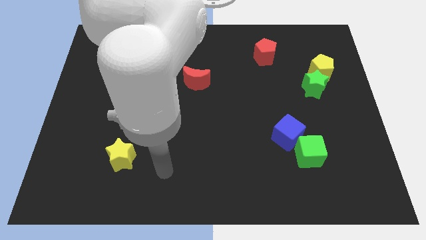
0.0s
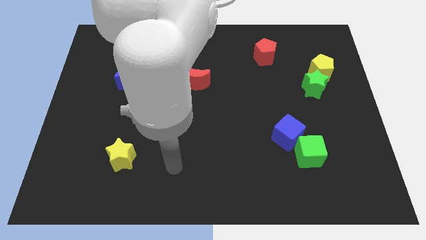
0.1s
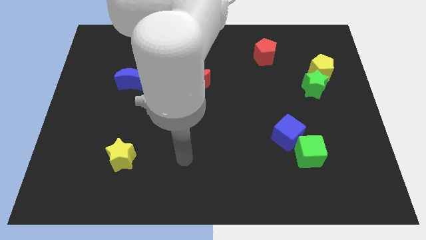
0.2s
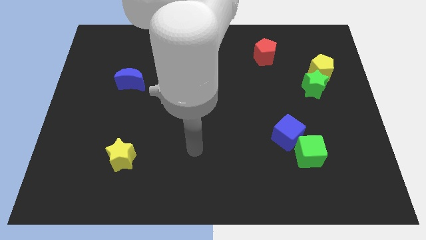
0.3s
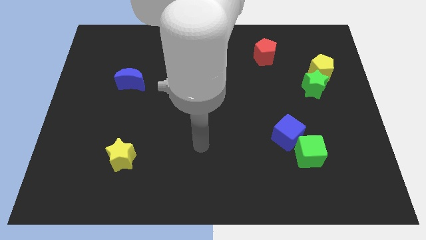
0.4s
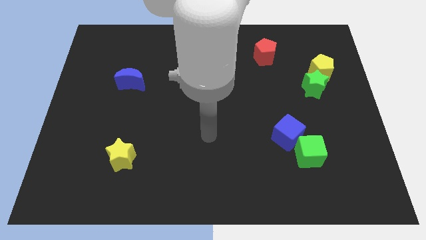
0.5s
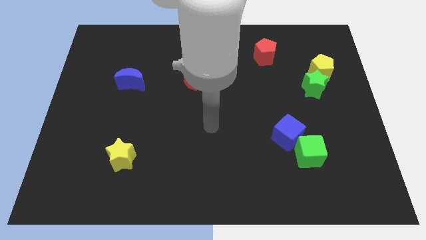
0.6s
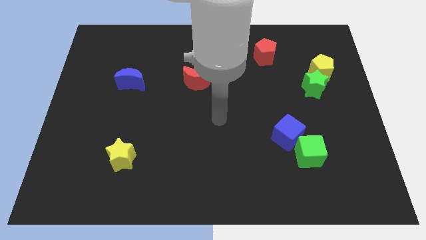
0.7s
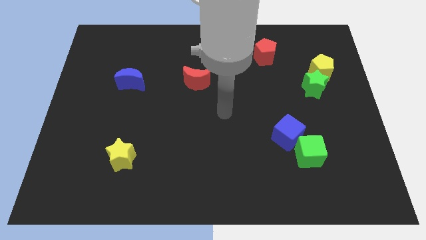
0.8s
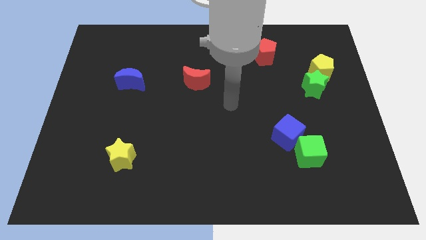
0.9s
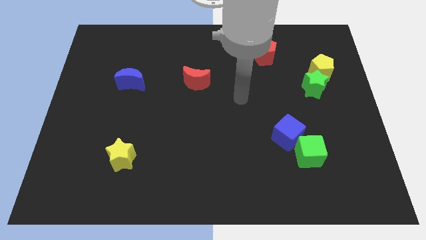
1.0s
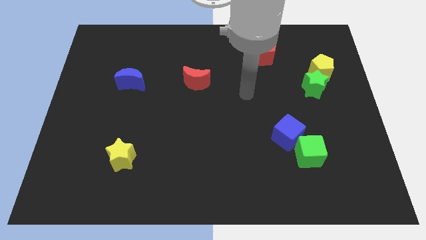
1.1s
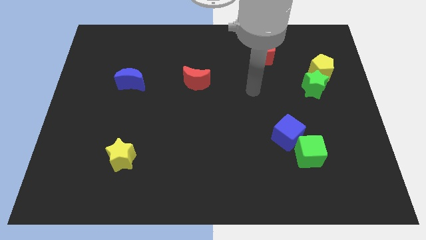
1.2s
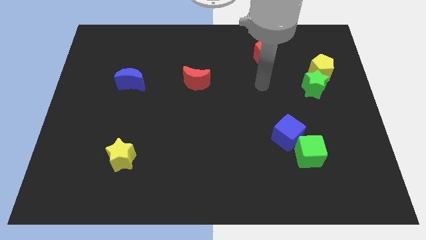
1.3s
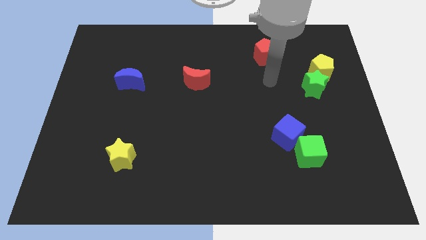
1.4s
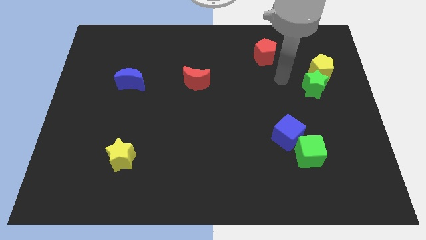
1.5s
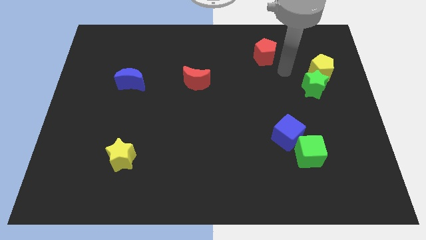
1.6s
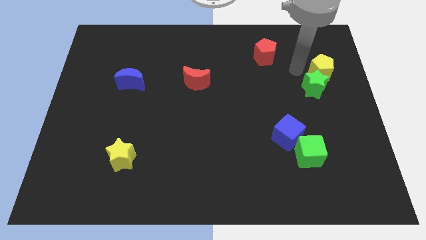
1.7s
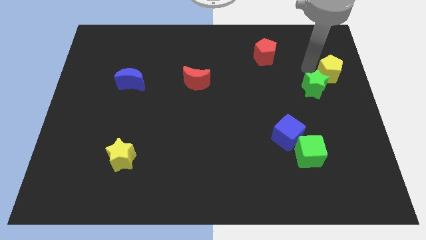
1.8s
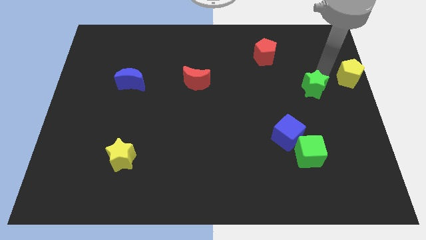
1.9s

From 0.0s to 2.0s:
move the green star away from the yellow pentagon

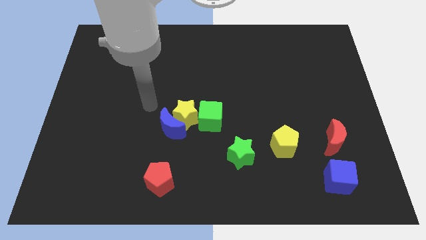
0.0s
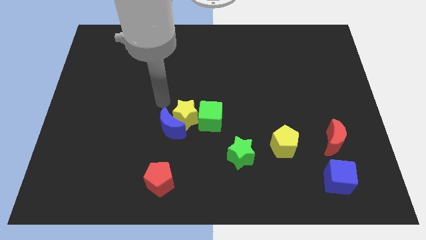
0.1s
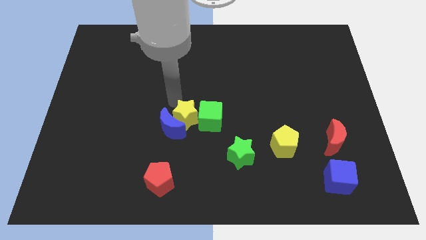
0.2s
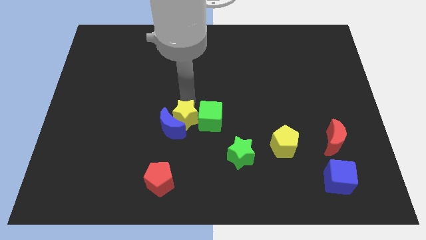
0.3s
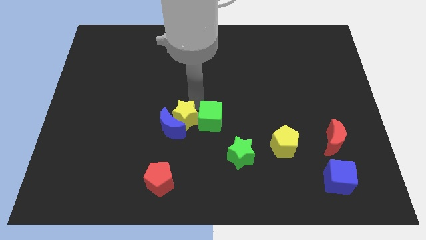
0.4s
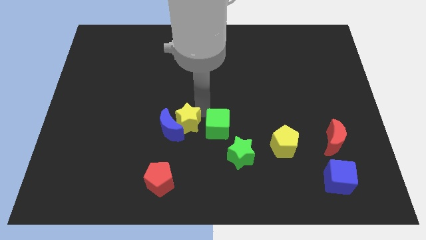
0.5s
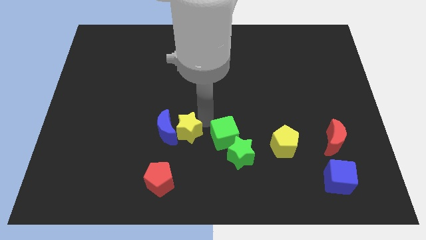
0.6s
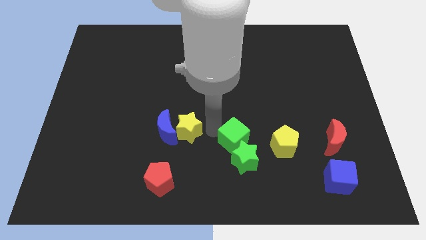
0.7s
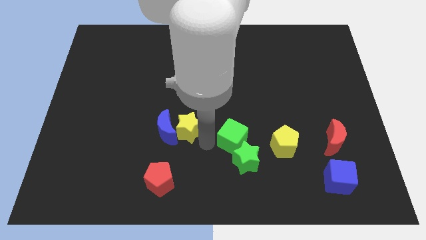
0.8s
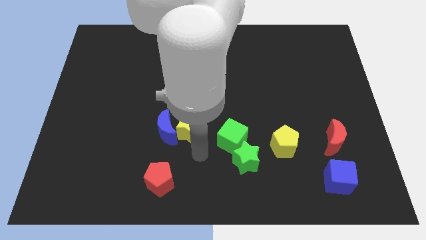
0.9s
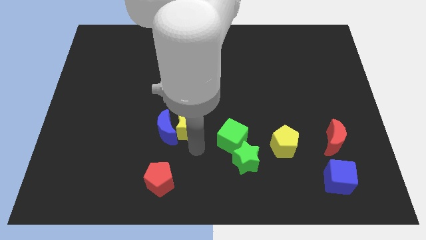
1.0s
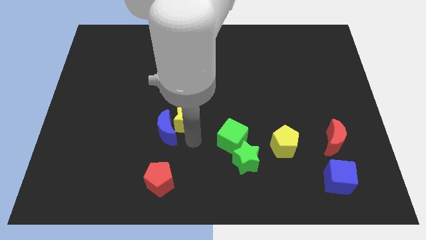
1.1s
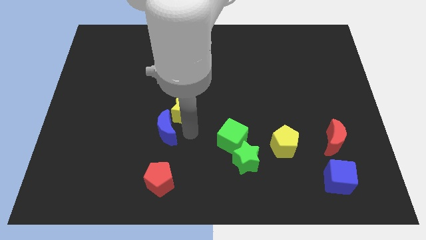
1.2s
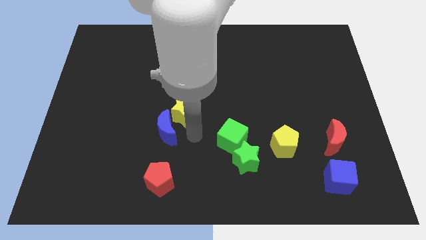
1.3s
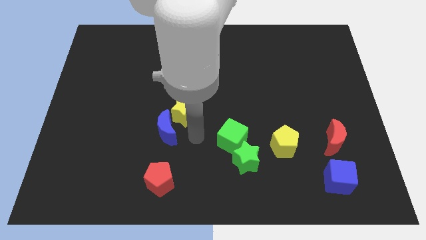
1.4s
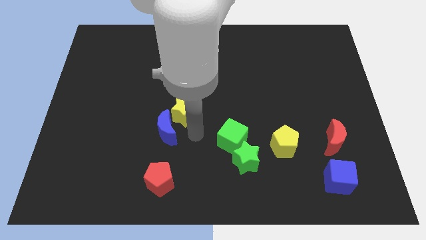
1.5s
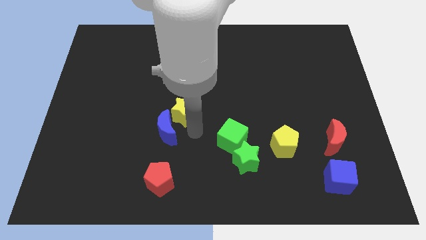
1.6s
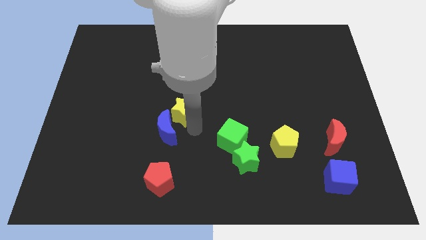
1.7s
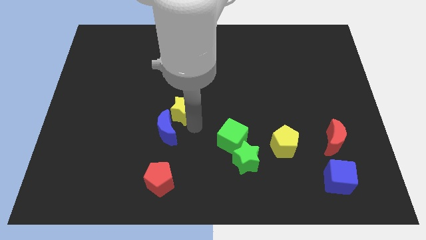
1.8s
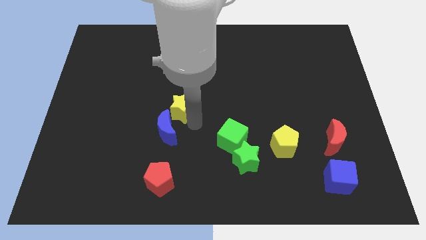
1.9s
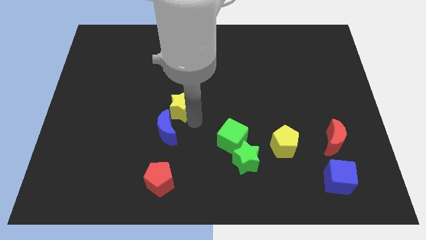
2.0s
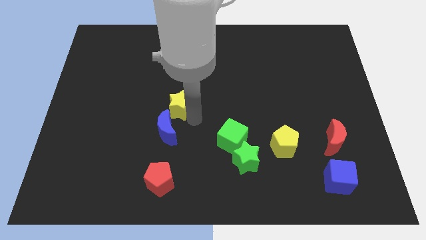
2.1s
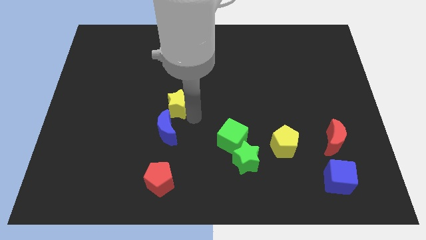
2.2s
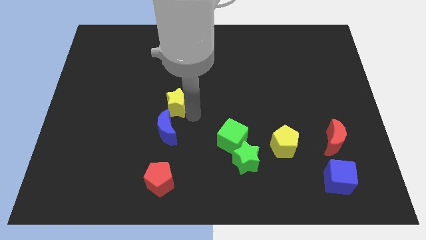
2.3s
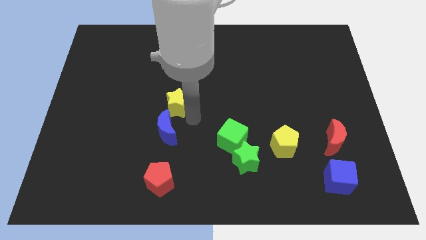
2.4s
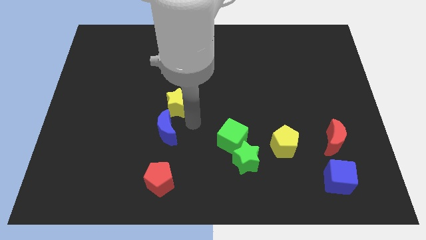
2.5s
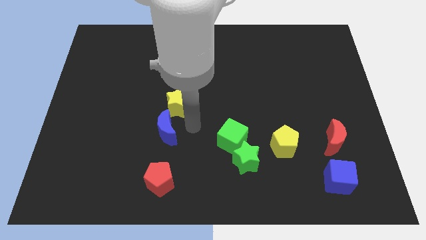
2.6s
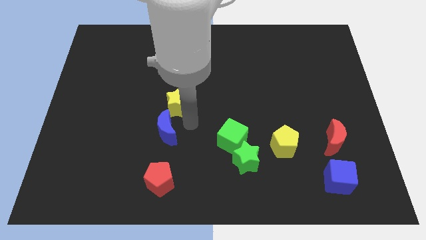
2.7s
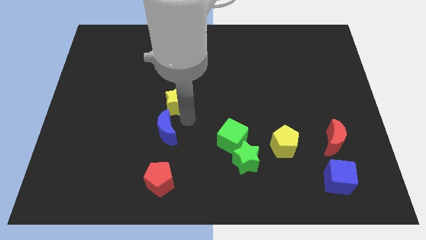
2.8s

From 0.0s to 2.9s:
move the yellow star away from the blue moon and green cube

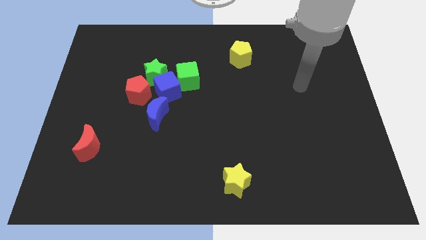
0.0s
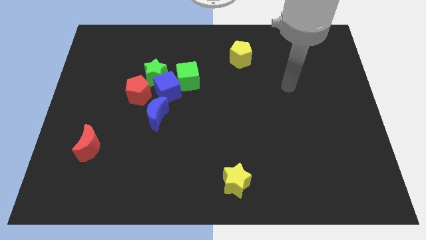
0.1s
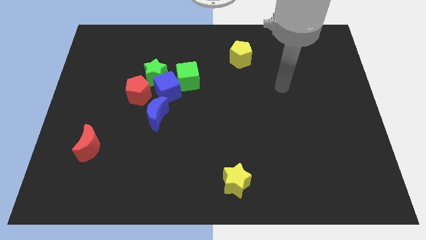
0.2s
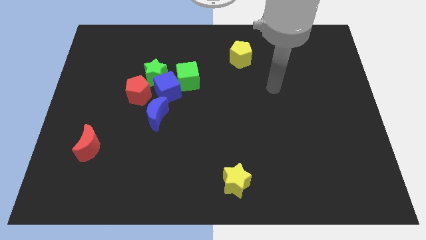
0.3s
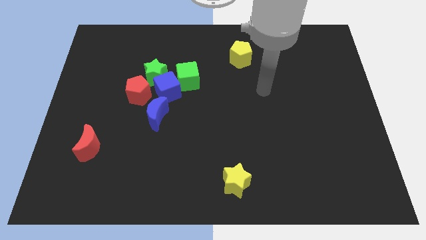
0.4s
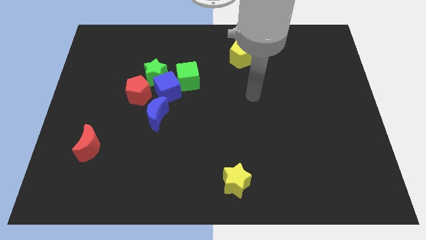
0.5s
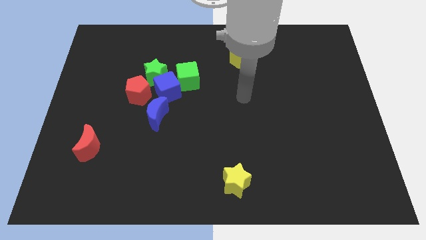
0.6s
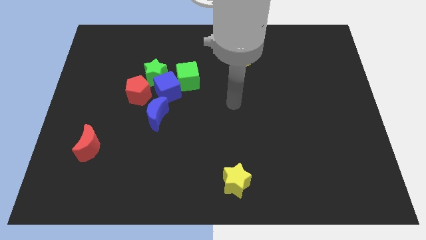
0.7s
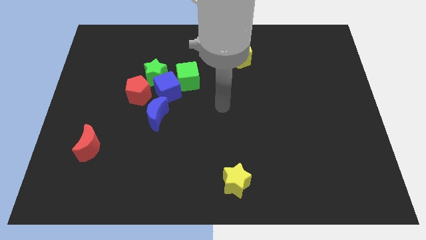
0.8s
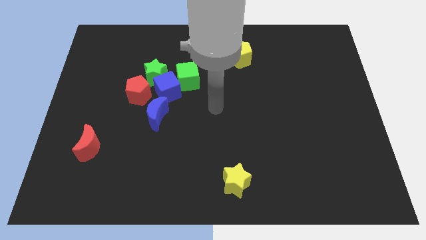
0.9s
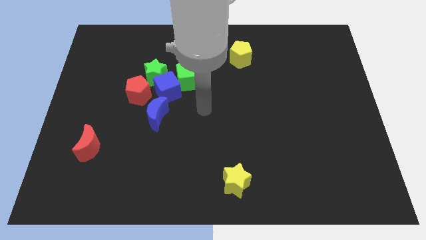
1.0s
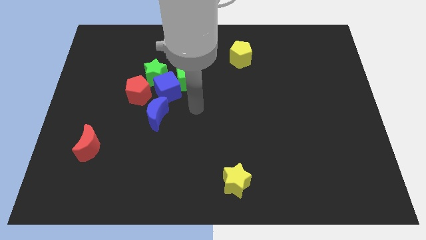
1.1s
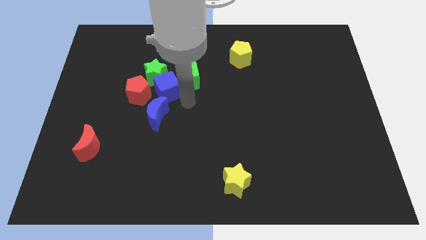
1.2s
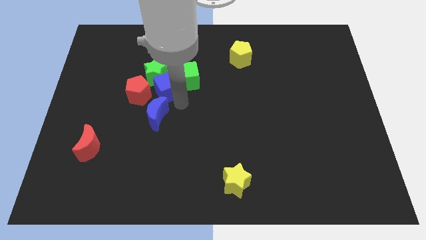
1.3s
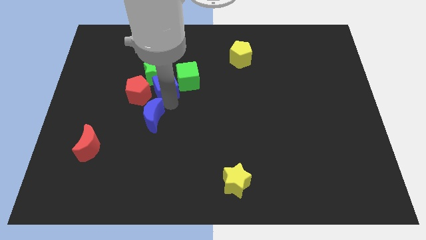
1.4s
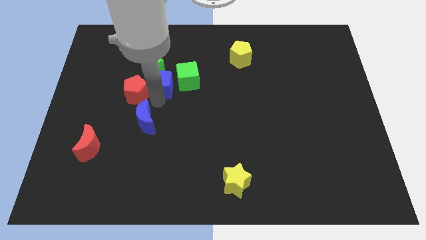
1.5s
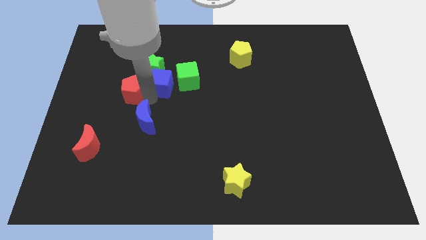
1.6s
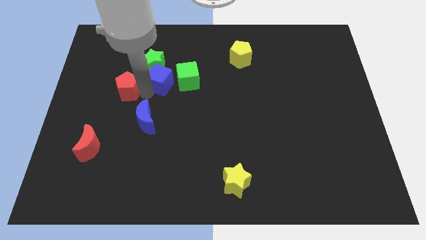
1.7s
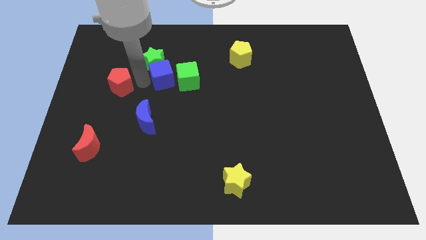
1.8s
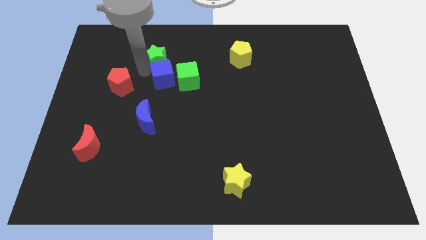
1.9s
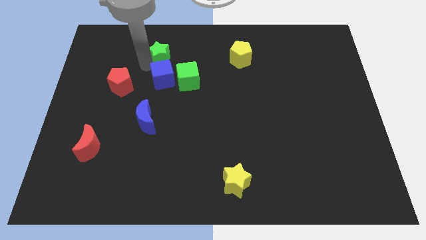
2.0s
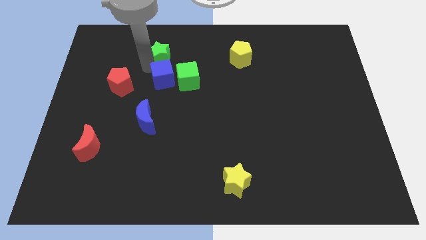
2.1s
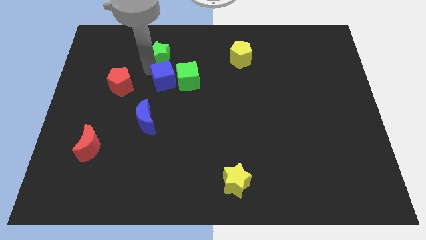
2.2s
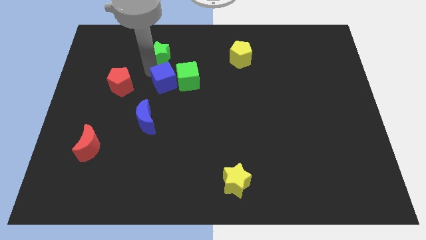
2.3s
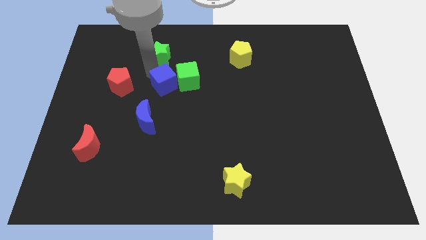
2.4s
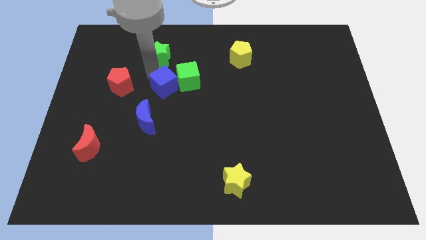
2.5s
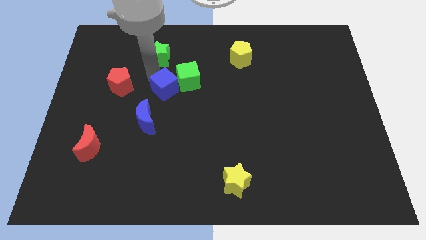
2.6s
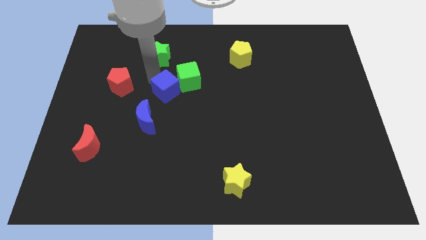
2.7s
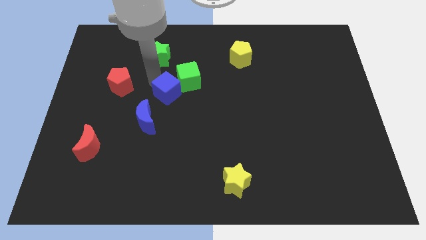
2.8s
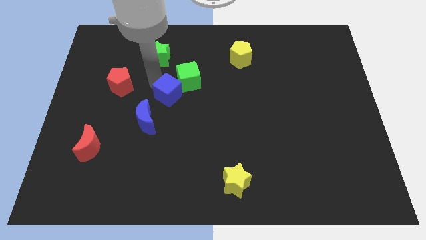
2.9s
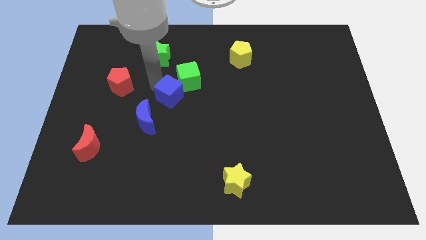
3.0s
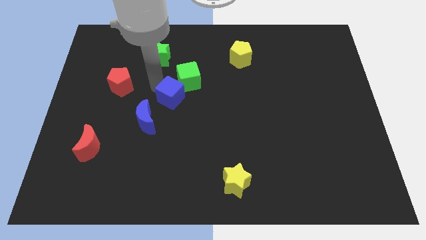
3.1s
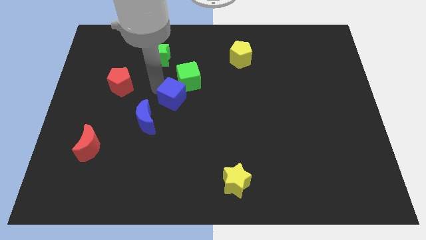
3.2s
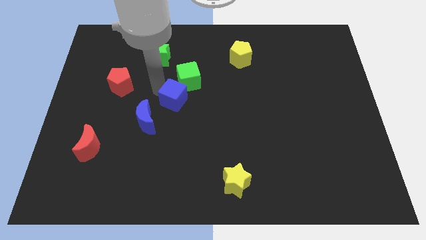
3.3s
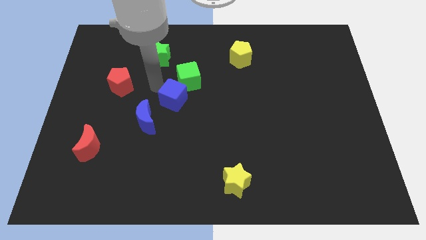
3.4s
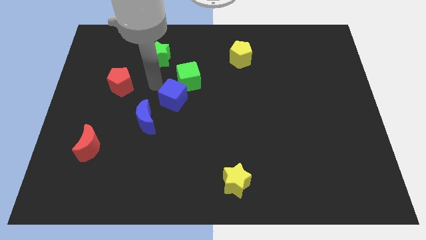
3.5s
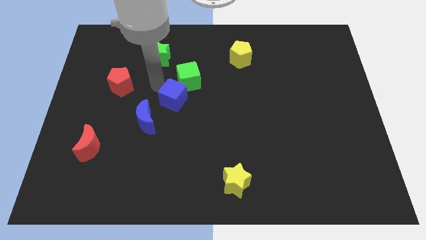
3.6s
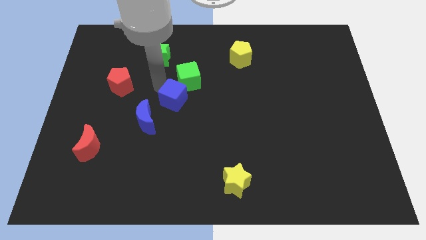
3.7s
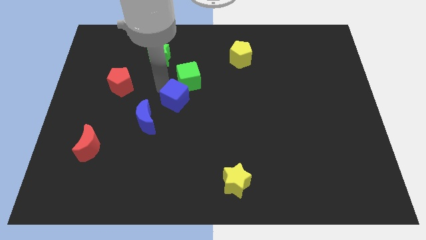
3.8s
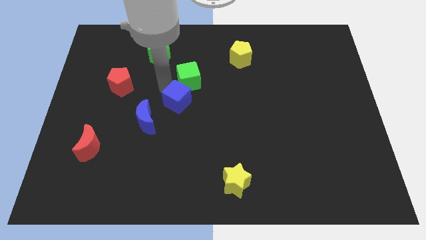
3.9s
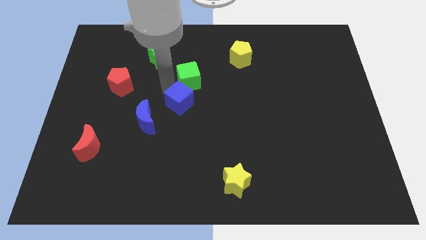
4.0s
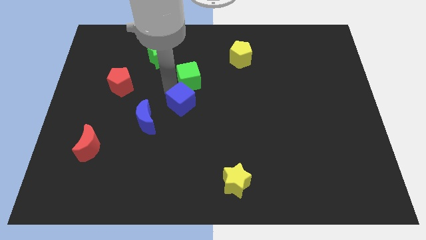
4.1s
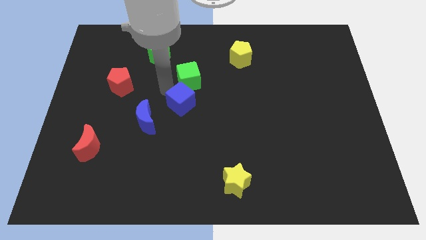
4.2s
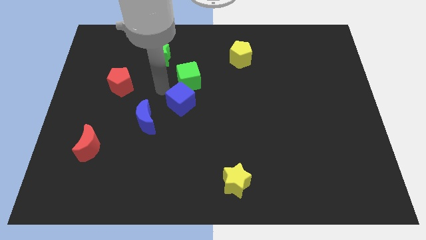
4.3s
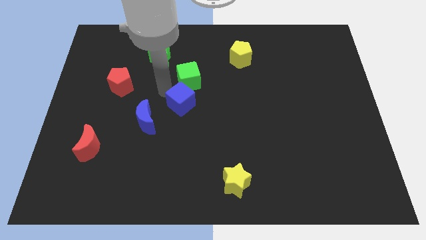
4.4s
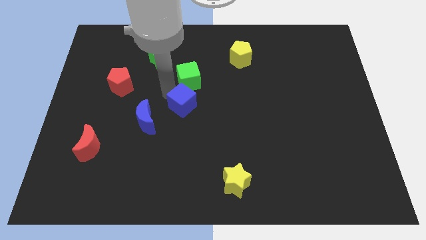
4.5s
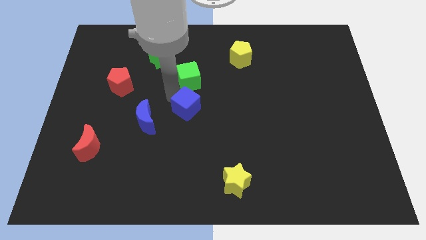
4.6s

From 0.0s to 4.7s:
pull the blue cube apart from the group
